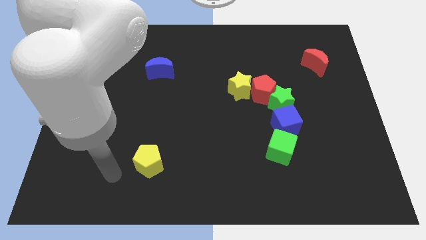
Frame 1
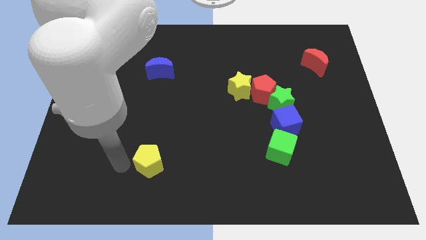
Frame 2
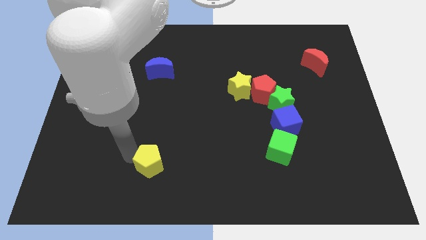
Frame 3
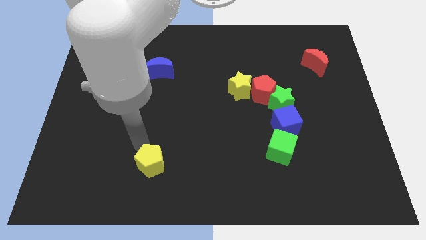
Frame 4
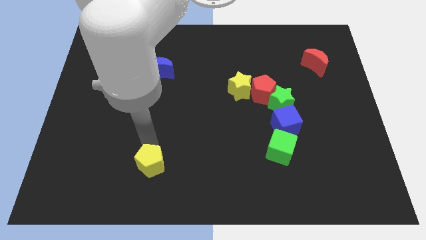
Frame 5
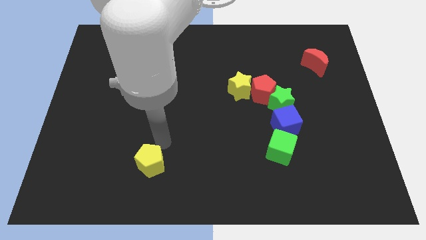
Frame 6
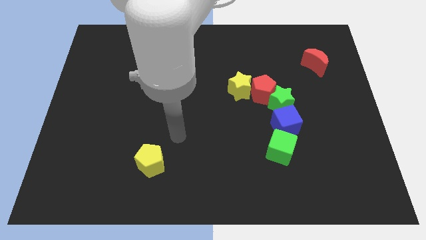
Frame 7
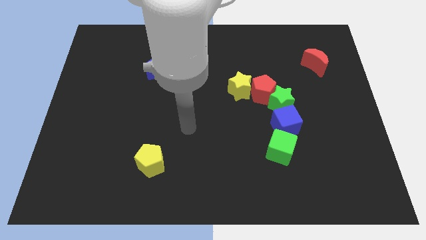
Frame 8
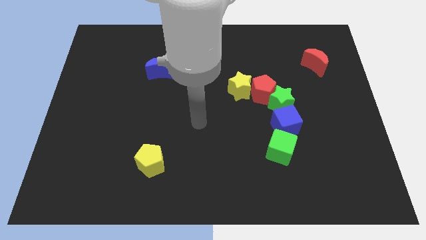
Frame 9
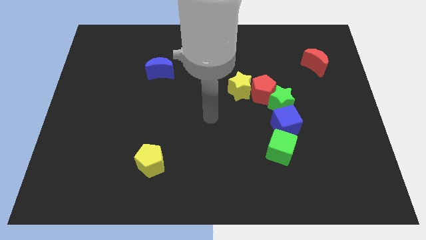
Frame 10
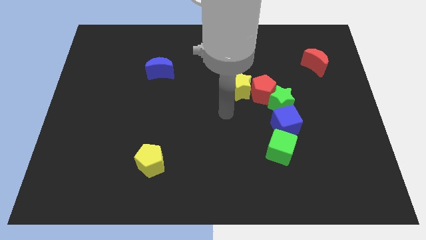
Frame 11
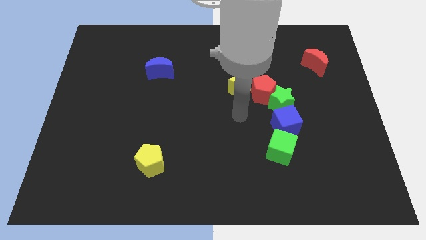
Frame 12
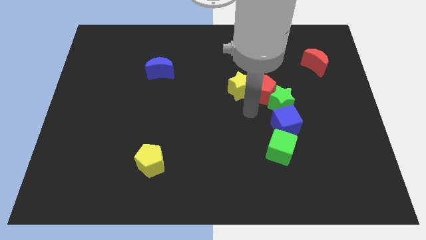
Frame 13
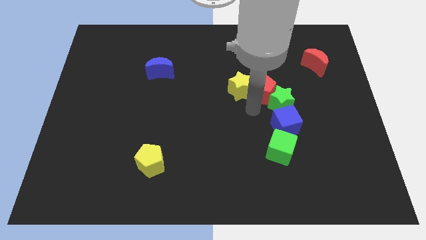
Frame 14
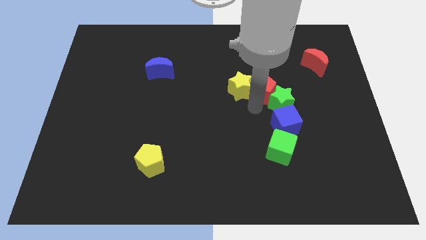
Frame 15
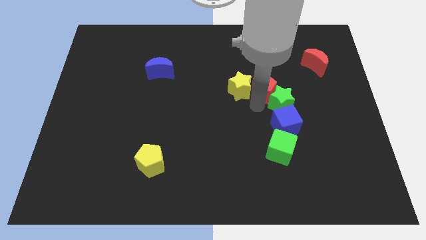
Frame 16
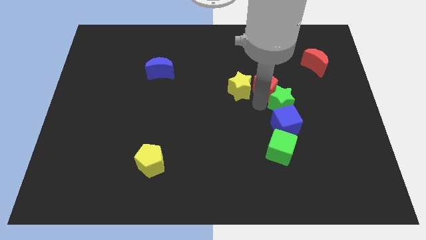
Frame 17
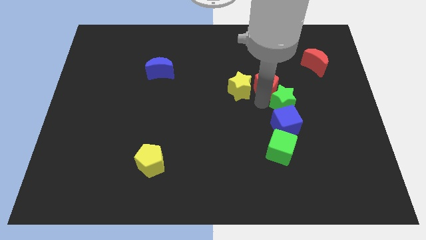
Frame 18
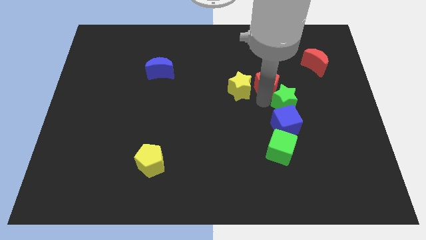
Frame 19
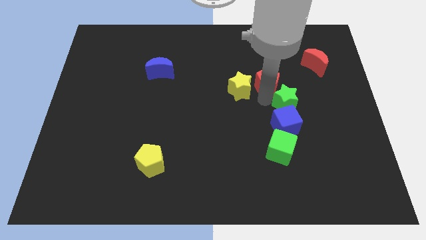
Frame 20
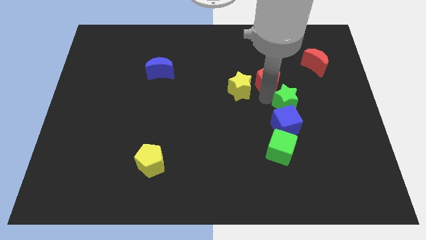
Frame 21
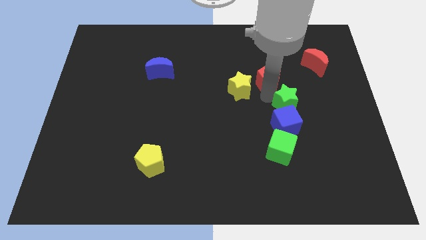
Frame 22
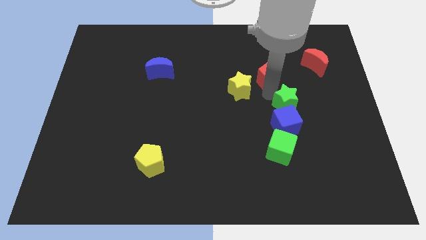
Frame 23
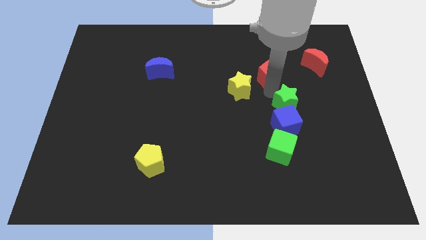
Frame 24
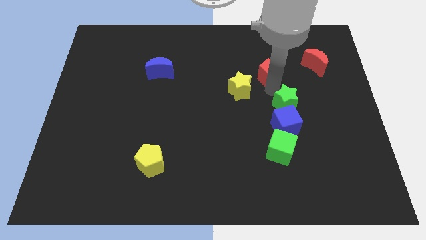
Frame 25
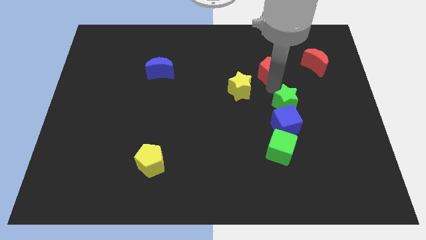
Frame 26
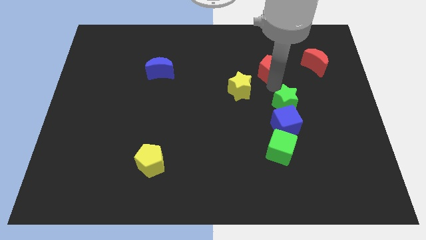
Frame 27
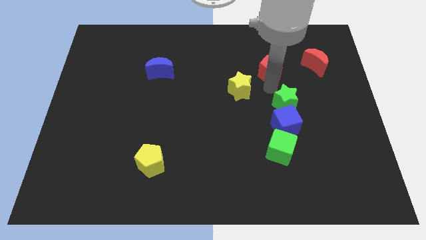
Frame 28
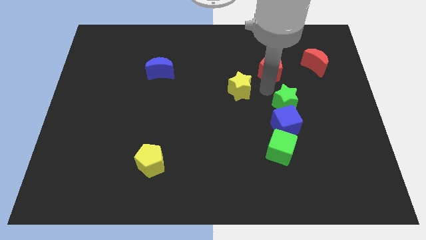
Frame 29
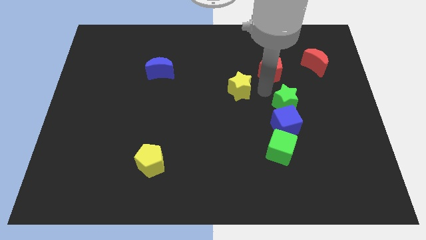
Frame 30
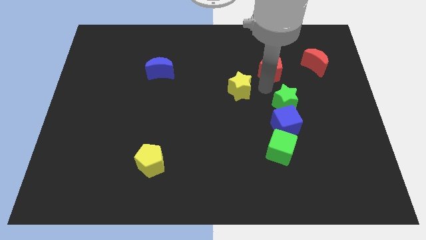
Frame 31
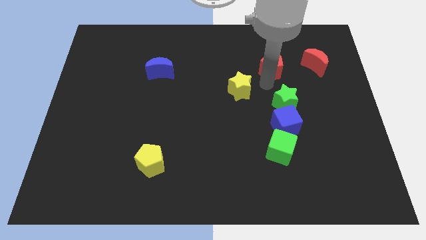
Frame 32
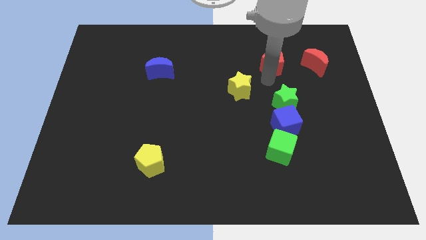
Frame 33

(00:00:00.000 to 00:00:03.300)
separate the red pentagon from the green star and yellow star

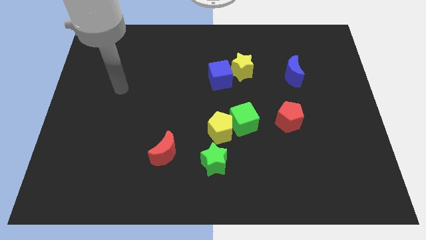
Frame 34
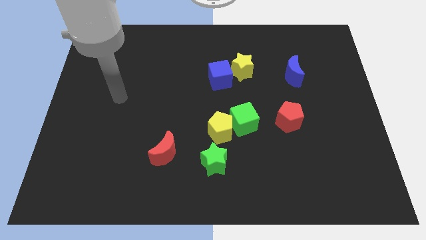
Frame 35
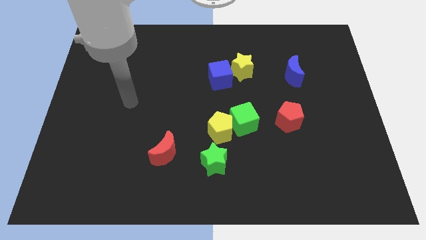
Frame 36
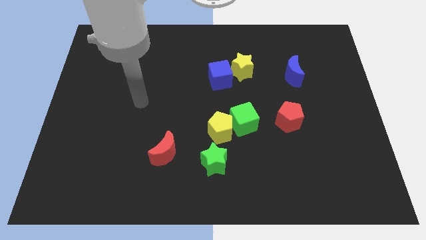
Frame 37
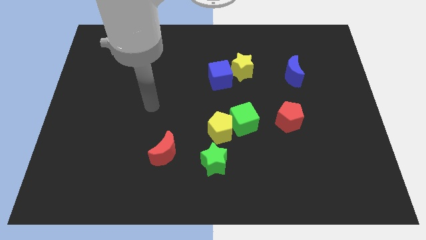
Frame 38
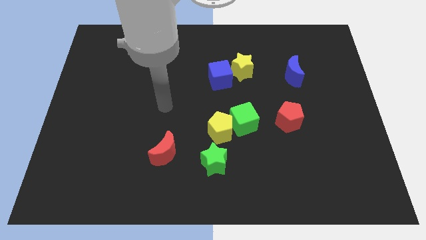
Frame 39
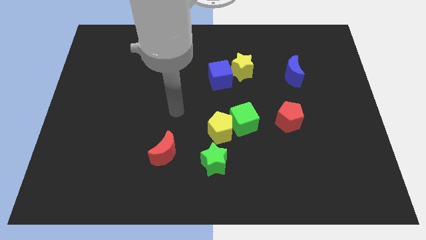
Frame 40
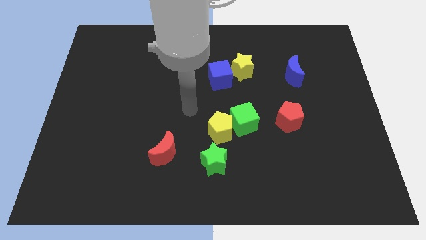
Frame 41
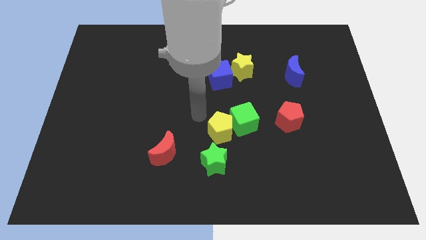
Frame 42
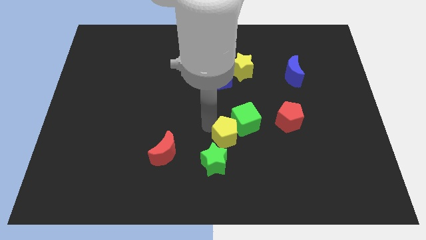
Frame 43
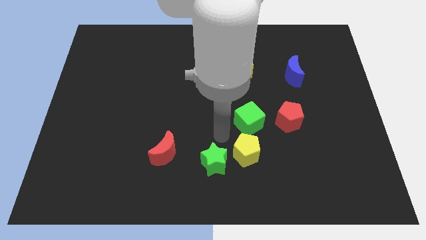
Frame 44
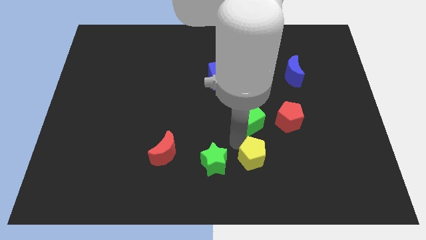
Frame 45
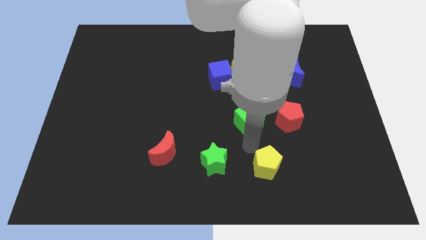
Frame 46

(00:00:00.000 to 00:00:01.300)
pull the green cube apart from the yellow pentagon

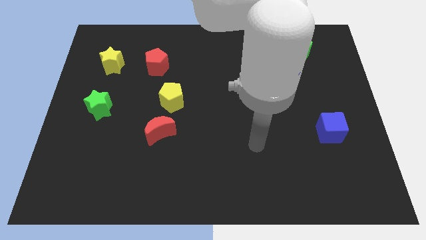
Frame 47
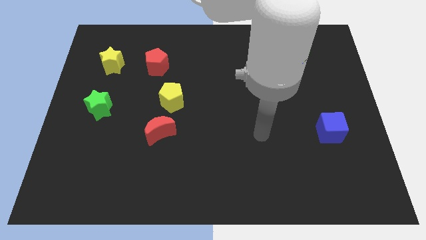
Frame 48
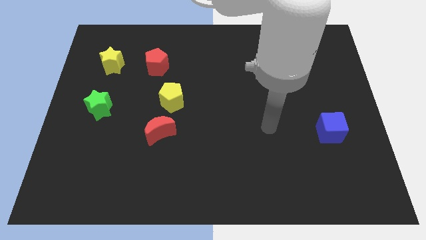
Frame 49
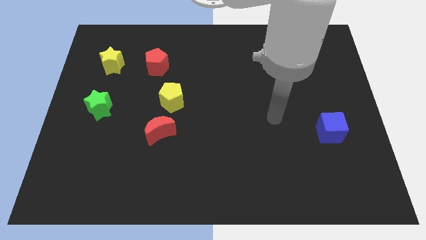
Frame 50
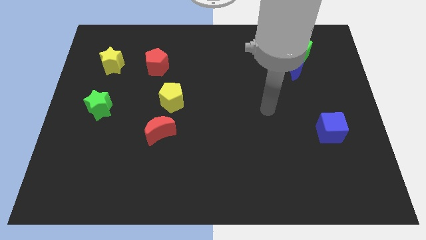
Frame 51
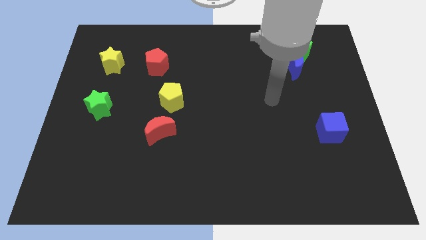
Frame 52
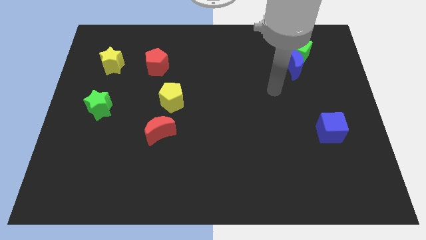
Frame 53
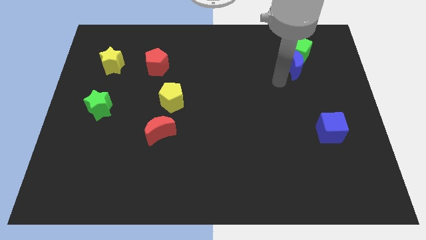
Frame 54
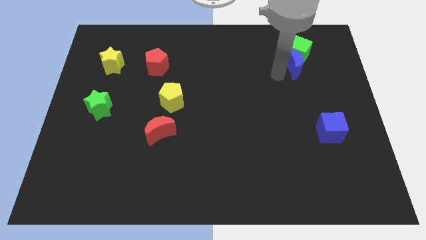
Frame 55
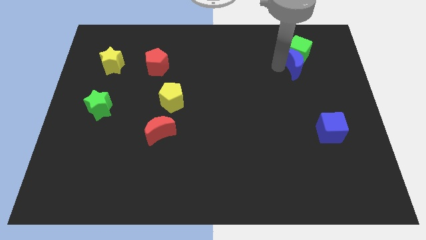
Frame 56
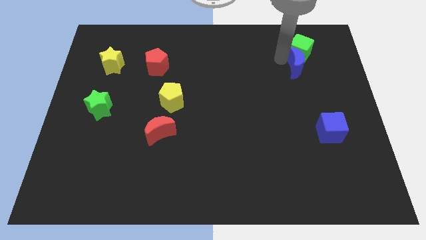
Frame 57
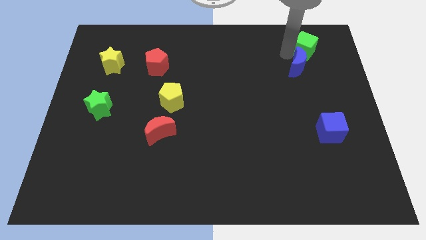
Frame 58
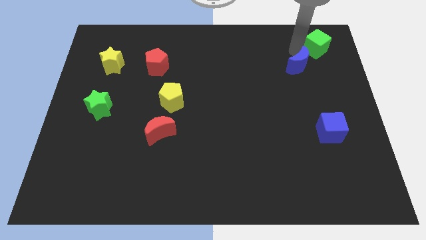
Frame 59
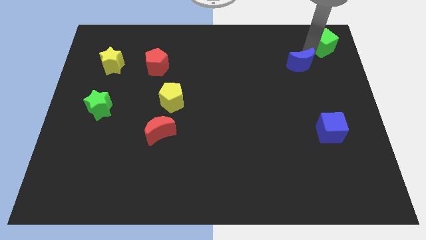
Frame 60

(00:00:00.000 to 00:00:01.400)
separate the blue moon from the green cube

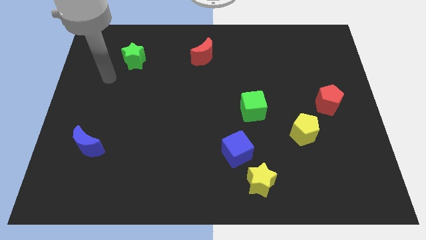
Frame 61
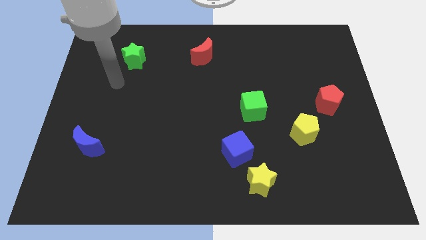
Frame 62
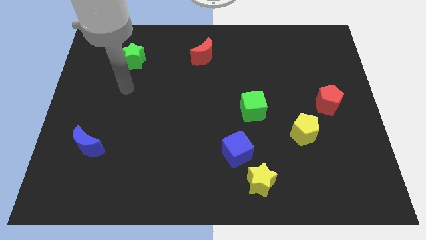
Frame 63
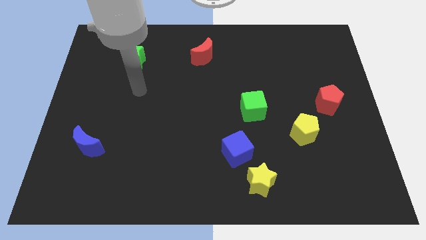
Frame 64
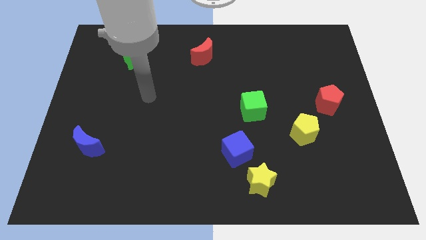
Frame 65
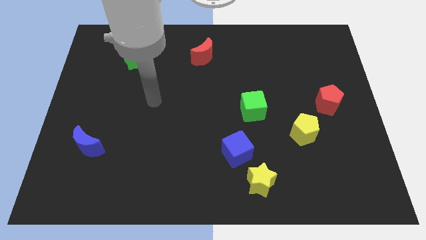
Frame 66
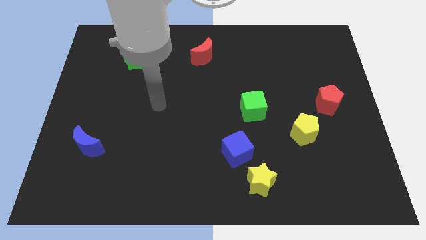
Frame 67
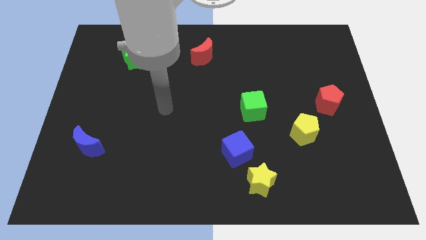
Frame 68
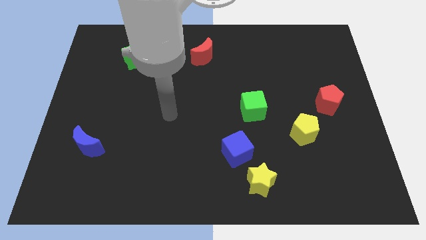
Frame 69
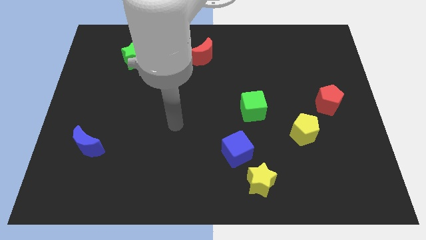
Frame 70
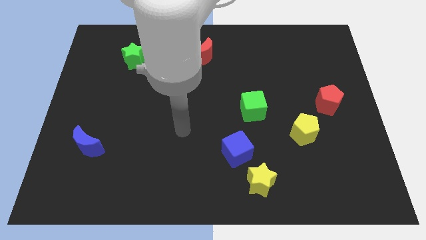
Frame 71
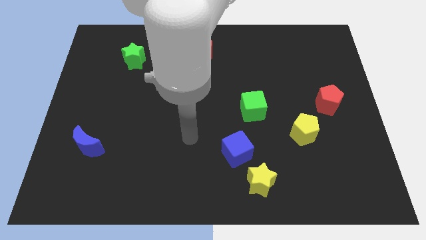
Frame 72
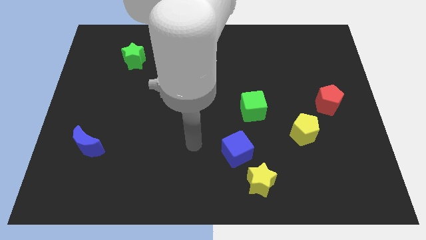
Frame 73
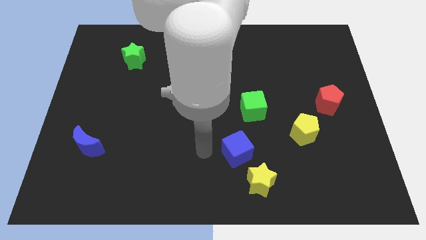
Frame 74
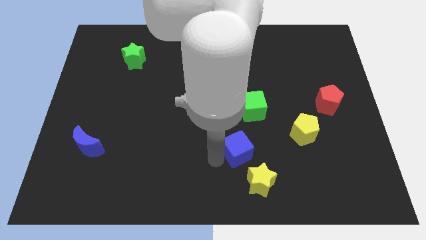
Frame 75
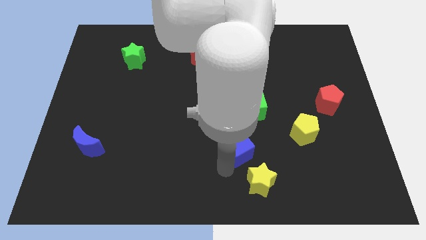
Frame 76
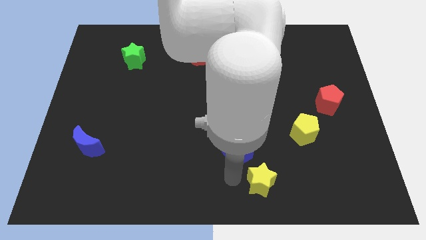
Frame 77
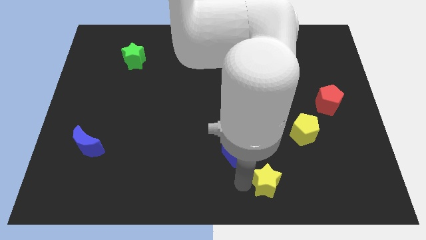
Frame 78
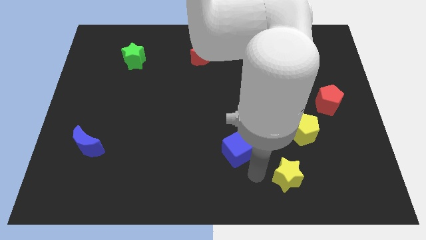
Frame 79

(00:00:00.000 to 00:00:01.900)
separate the blue cube from the yellow star

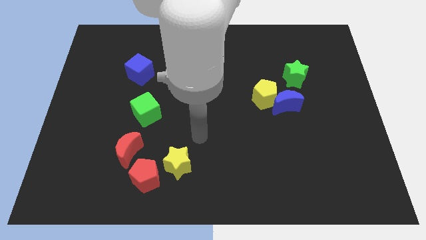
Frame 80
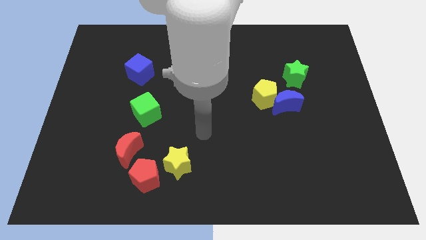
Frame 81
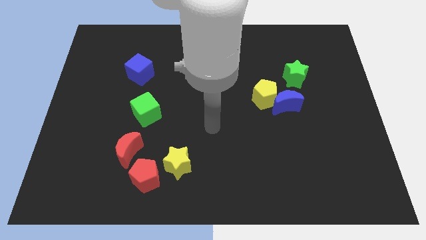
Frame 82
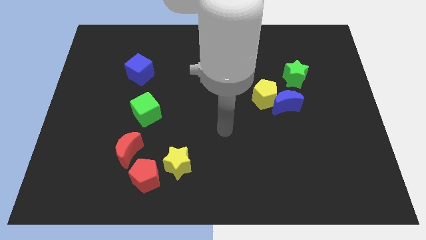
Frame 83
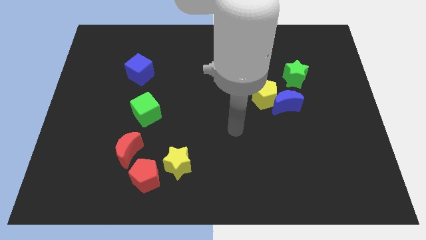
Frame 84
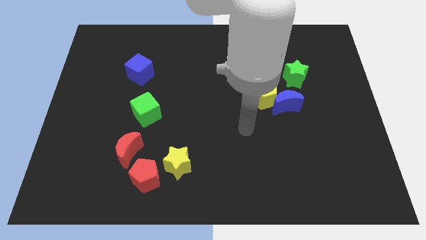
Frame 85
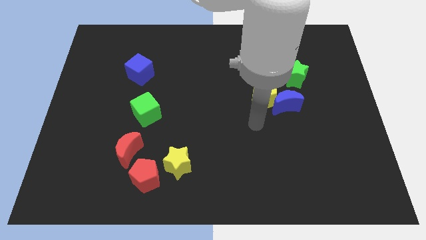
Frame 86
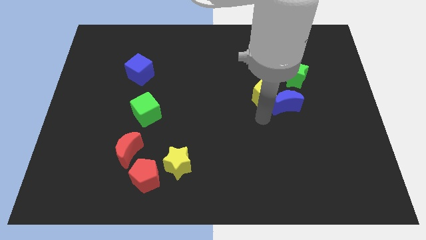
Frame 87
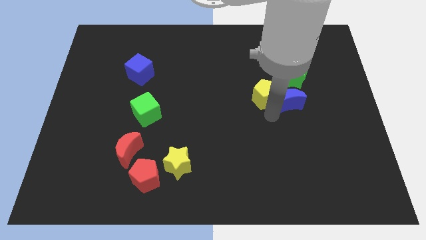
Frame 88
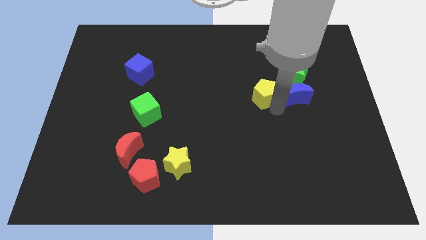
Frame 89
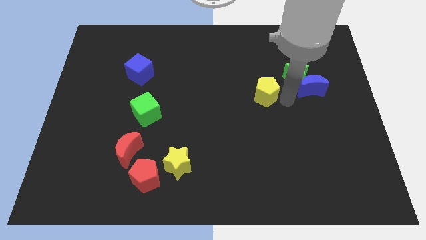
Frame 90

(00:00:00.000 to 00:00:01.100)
separate the yellow pentagon from the blue moon

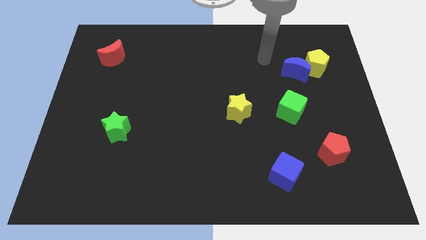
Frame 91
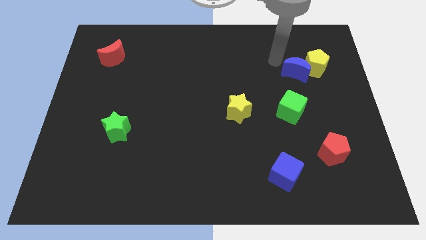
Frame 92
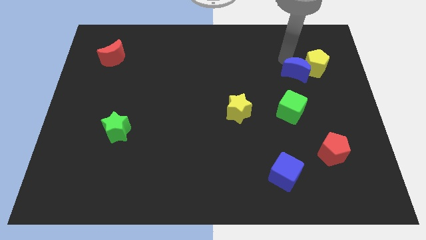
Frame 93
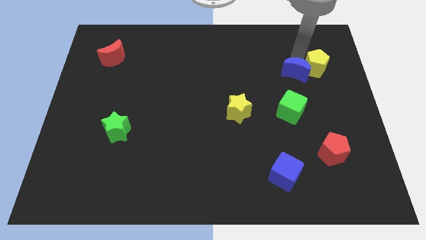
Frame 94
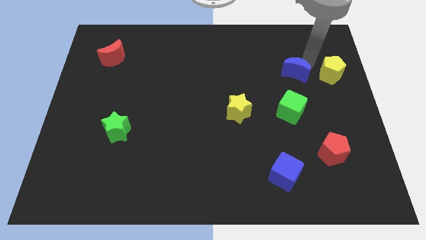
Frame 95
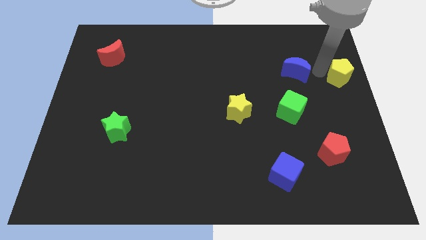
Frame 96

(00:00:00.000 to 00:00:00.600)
pull the blue moon apart from the yellow pentagon
